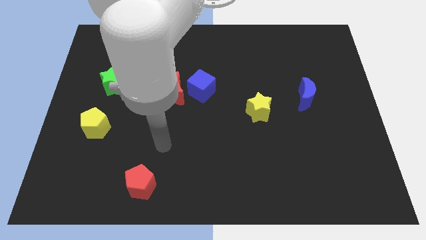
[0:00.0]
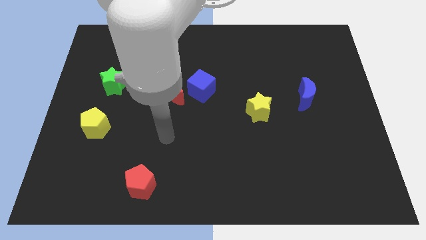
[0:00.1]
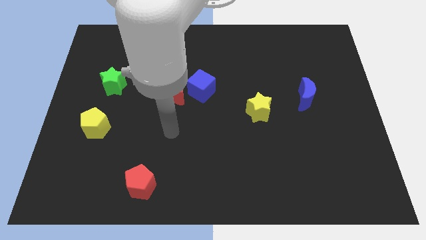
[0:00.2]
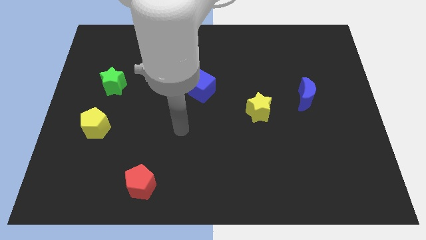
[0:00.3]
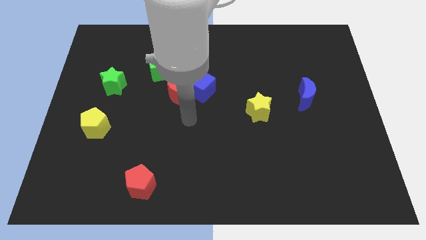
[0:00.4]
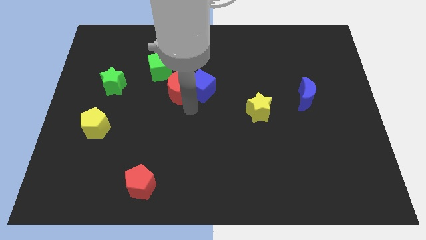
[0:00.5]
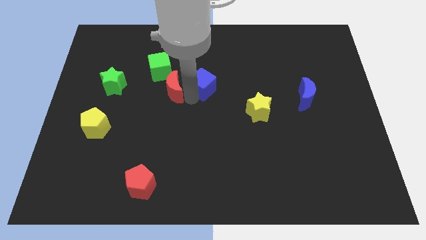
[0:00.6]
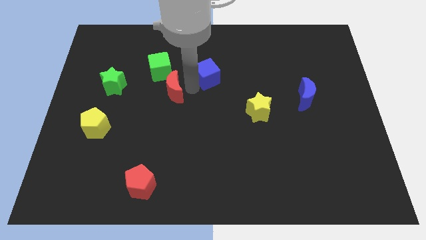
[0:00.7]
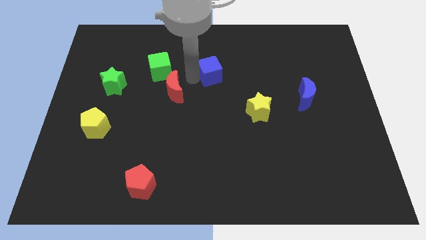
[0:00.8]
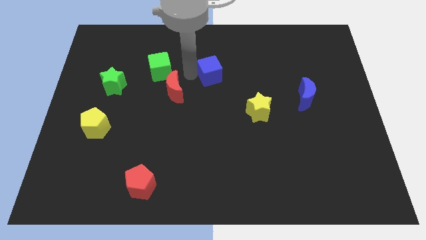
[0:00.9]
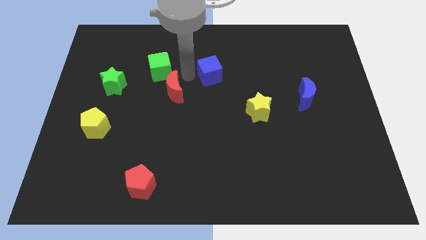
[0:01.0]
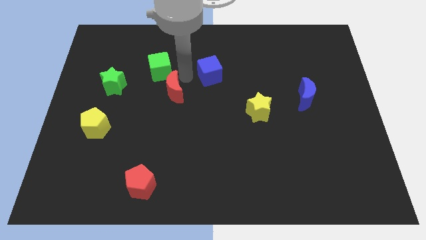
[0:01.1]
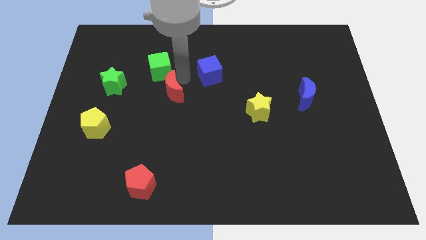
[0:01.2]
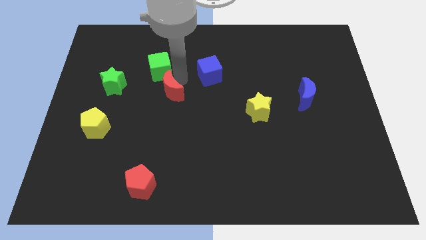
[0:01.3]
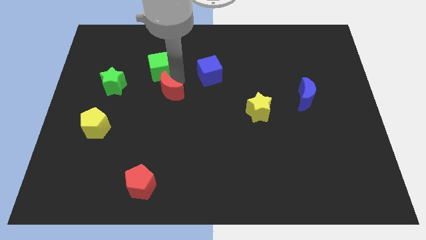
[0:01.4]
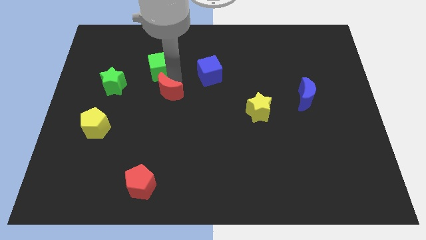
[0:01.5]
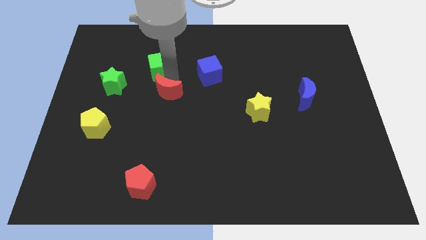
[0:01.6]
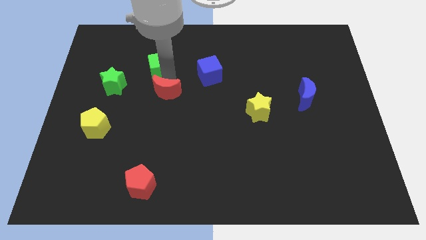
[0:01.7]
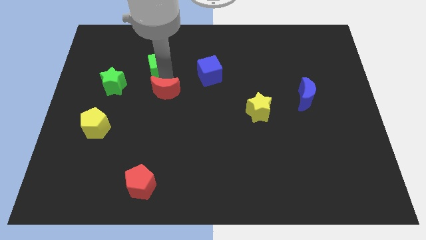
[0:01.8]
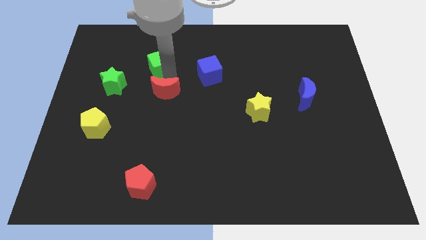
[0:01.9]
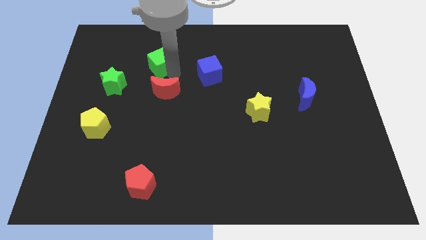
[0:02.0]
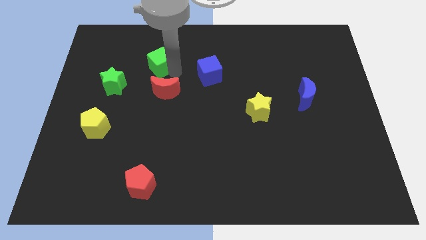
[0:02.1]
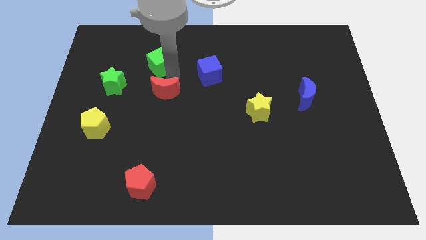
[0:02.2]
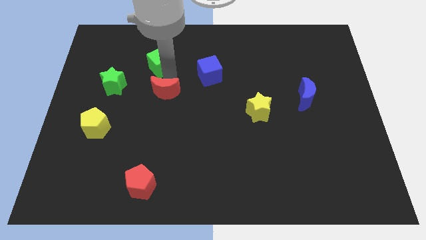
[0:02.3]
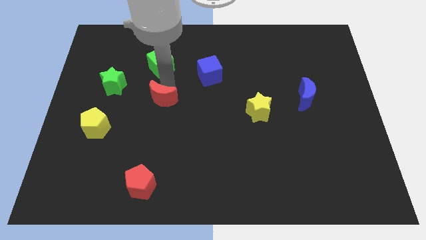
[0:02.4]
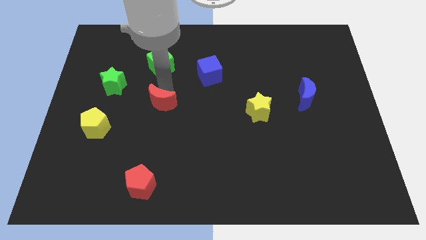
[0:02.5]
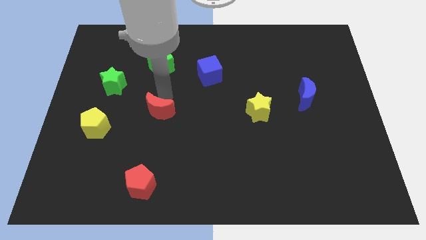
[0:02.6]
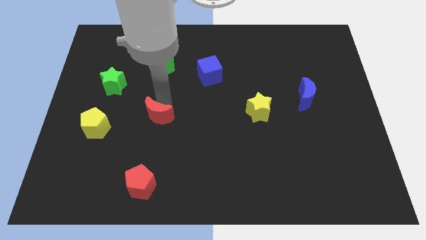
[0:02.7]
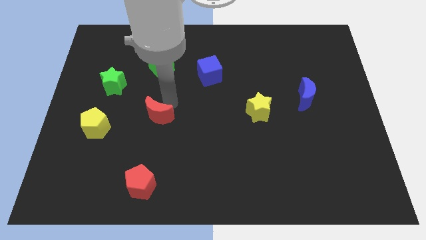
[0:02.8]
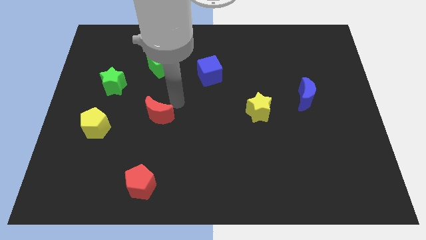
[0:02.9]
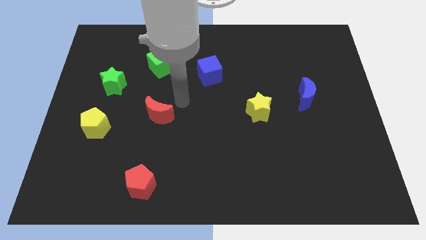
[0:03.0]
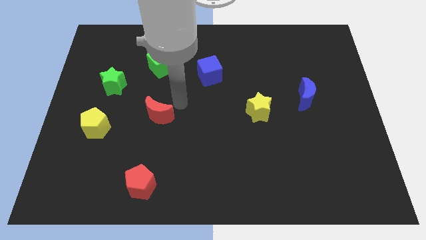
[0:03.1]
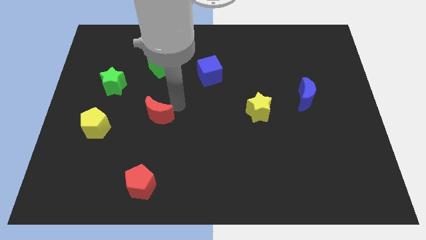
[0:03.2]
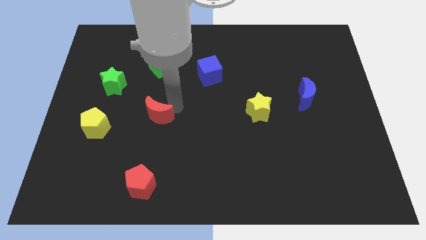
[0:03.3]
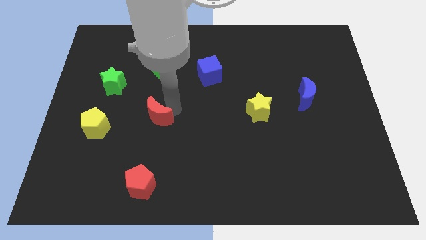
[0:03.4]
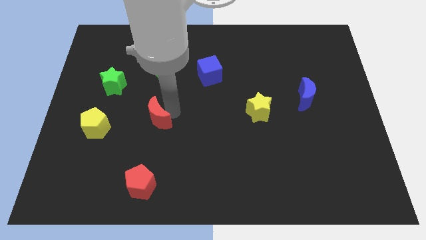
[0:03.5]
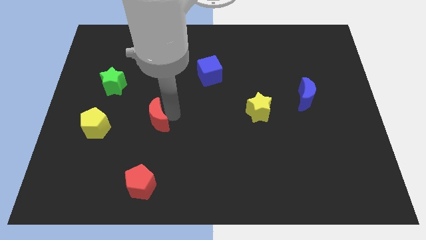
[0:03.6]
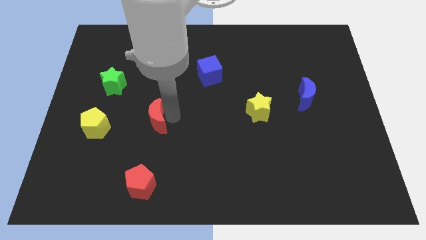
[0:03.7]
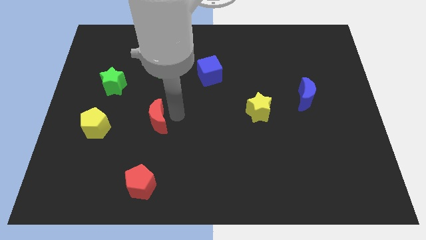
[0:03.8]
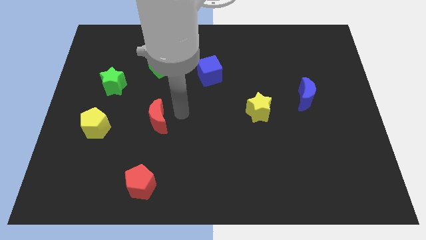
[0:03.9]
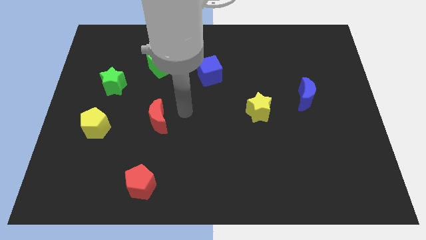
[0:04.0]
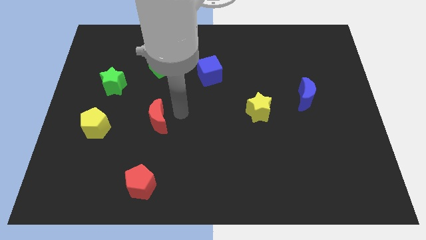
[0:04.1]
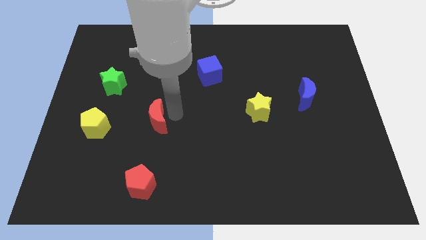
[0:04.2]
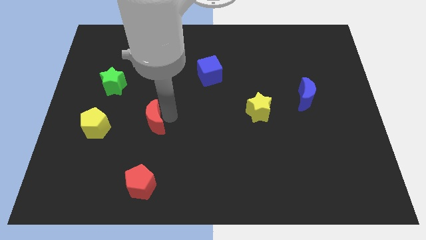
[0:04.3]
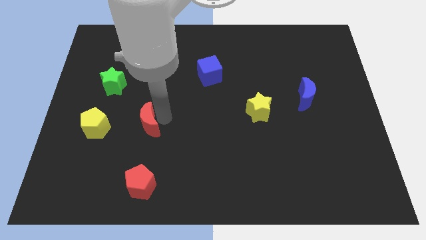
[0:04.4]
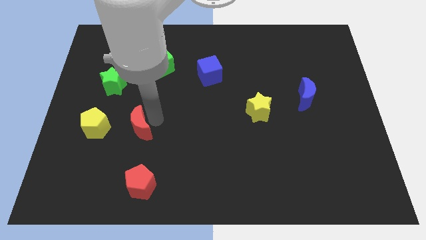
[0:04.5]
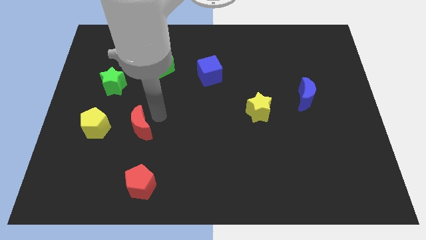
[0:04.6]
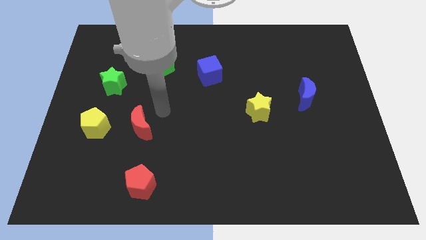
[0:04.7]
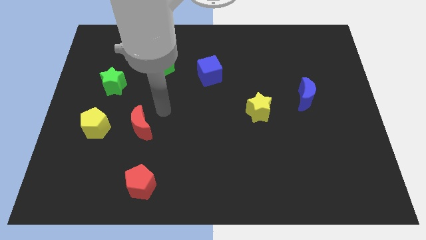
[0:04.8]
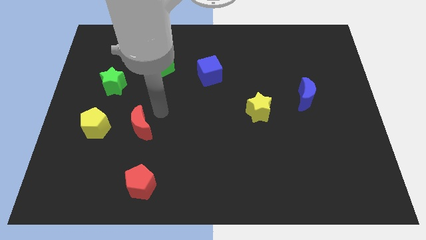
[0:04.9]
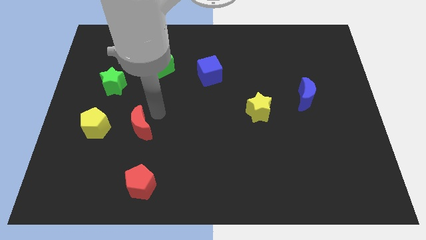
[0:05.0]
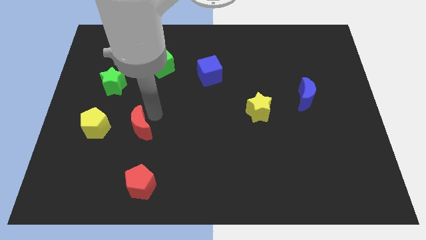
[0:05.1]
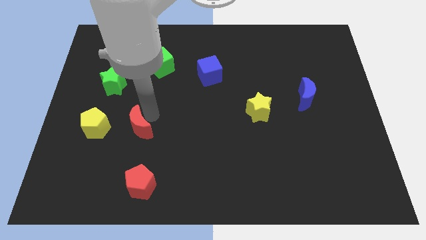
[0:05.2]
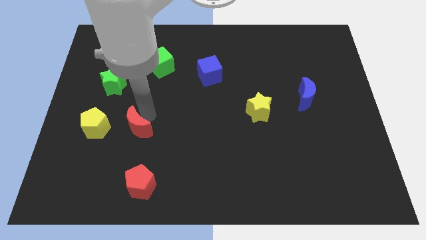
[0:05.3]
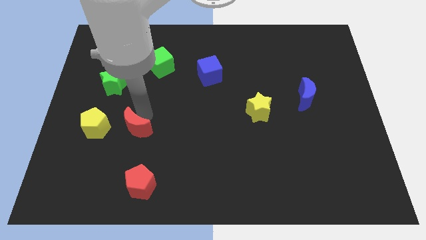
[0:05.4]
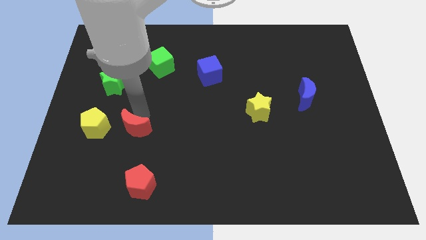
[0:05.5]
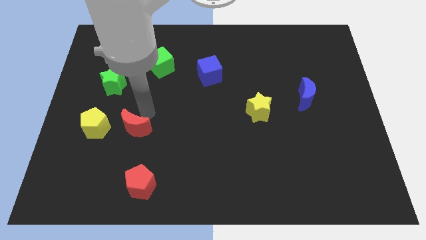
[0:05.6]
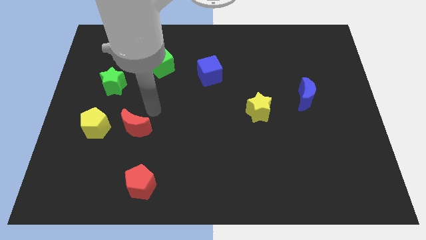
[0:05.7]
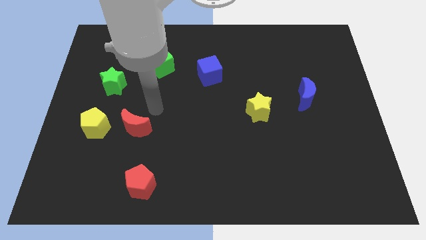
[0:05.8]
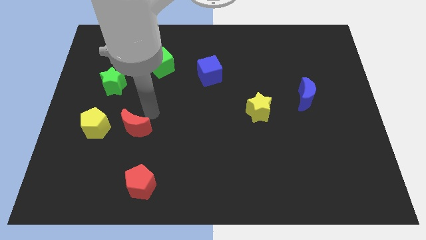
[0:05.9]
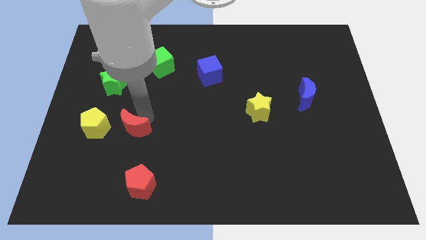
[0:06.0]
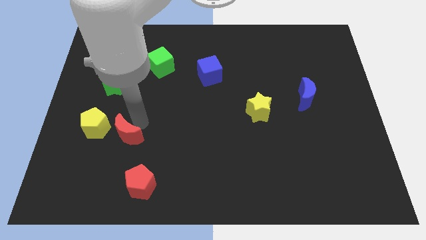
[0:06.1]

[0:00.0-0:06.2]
slide the red moon diagonally down and to the right of the yellow pentagon
